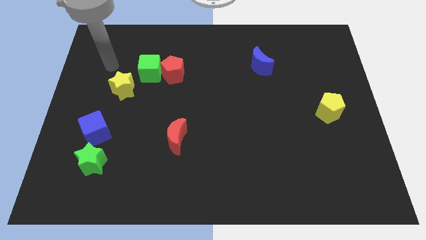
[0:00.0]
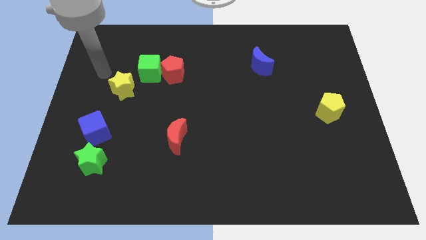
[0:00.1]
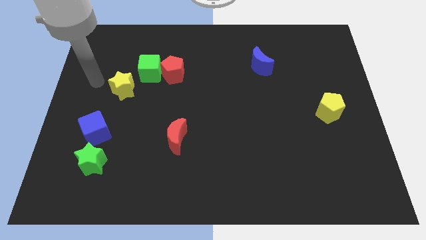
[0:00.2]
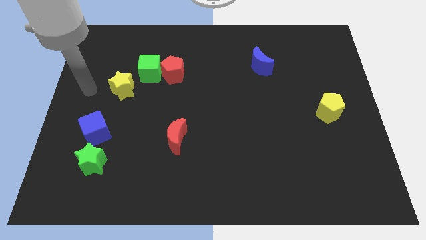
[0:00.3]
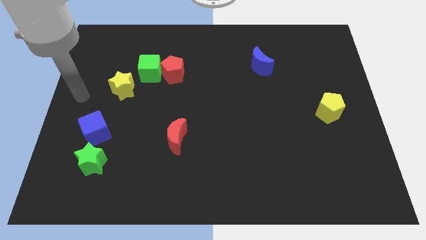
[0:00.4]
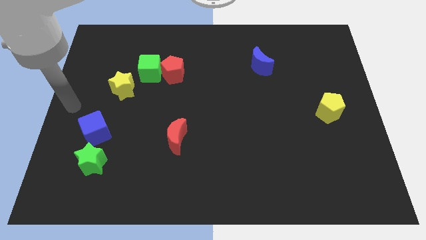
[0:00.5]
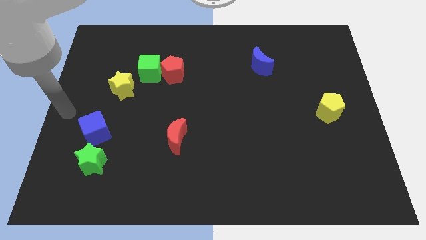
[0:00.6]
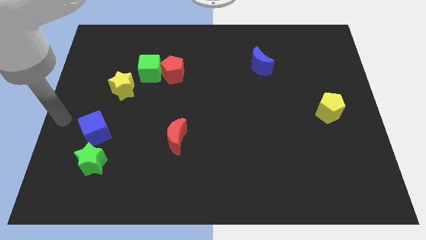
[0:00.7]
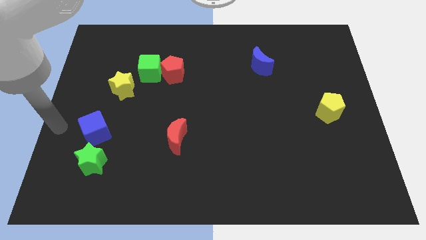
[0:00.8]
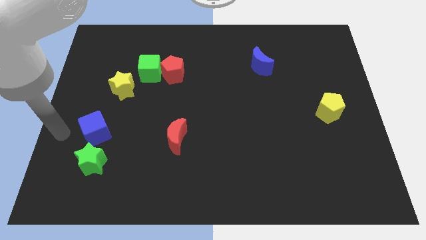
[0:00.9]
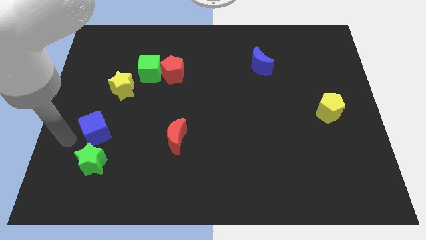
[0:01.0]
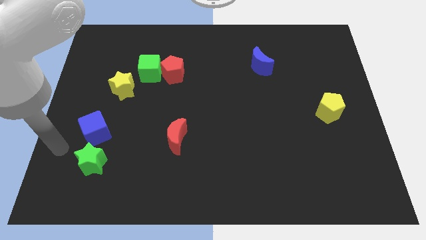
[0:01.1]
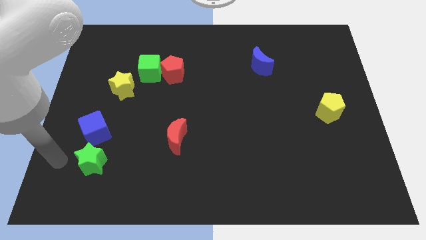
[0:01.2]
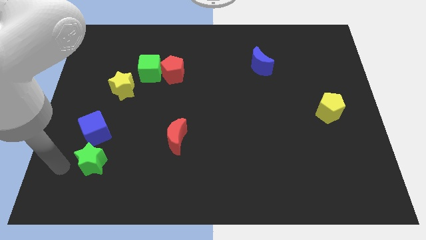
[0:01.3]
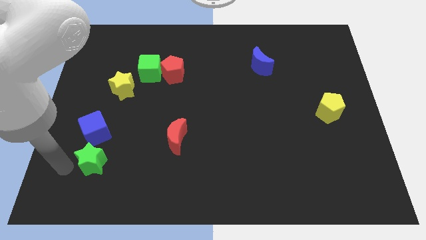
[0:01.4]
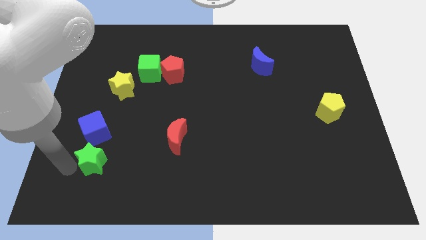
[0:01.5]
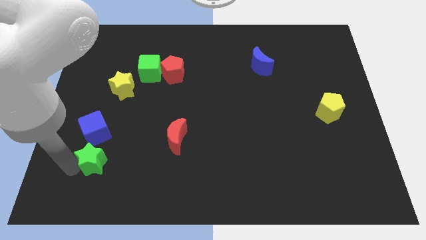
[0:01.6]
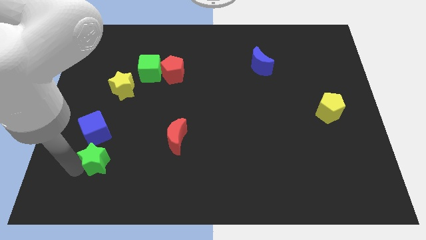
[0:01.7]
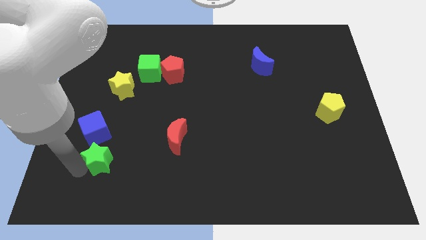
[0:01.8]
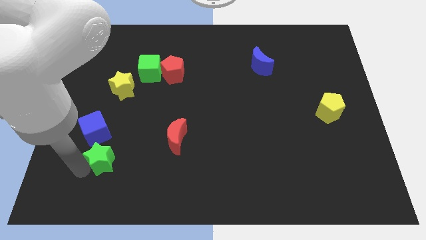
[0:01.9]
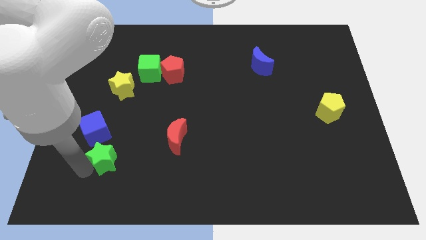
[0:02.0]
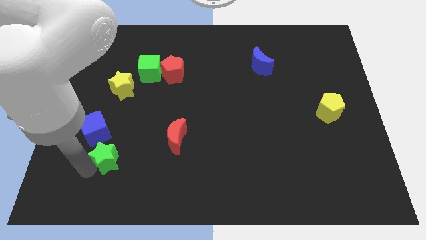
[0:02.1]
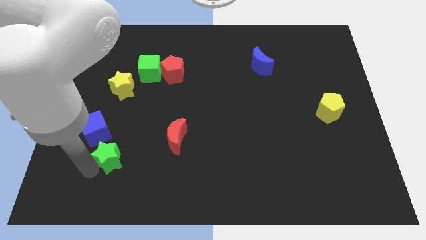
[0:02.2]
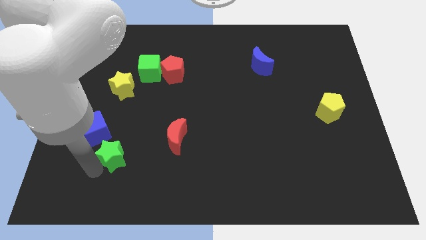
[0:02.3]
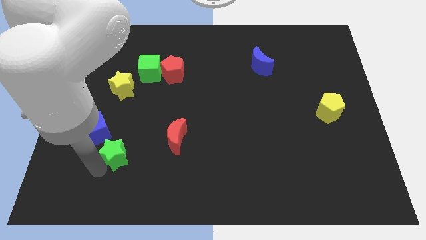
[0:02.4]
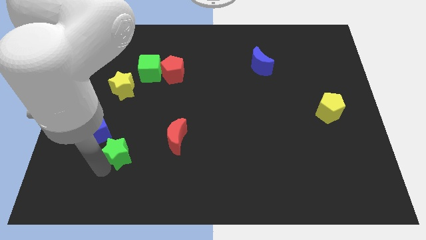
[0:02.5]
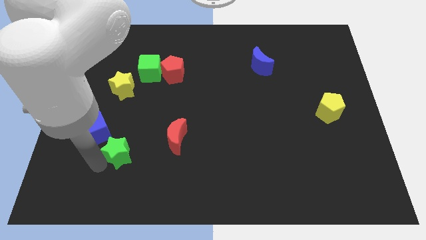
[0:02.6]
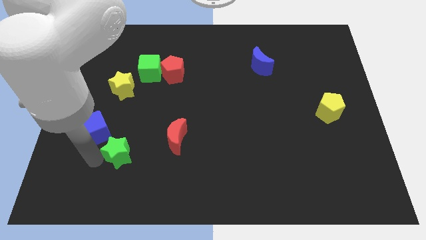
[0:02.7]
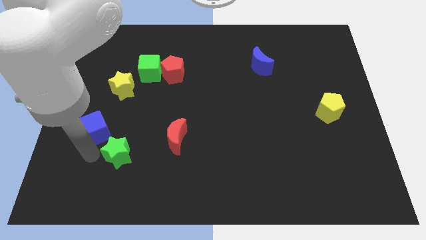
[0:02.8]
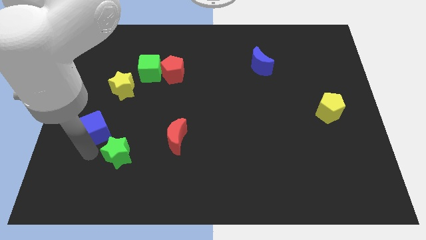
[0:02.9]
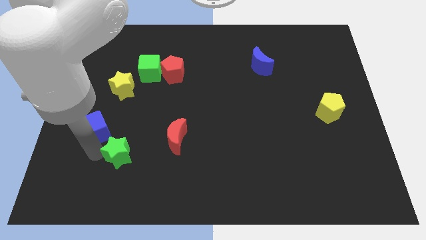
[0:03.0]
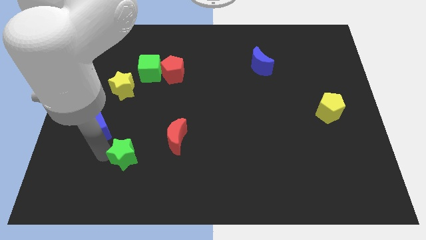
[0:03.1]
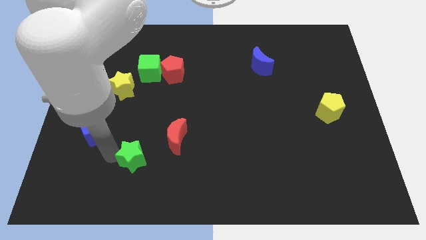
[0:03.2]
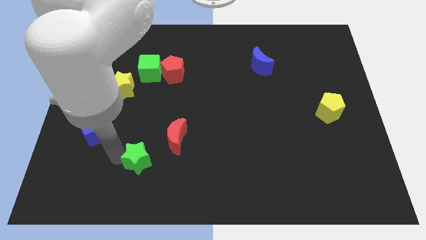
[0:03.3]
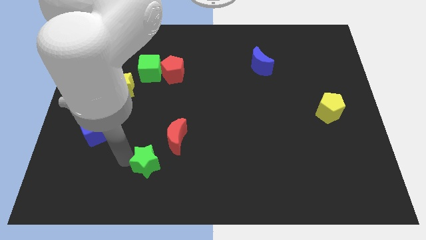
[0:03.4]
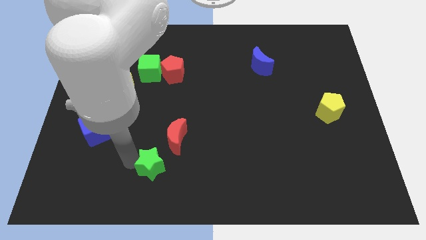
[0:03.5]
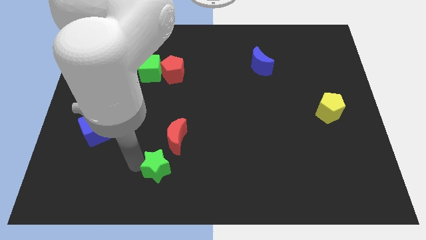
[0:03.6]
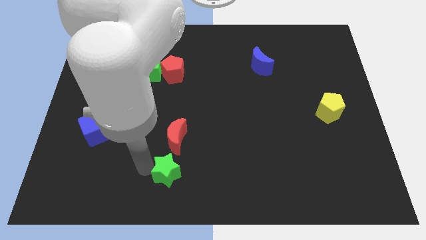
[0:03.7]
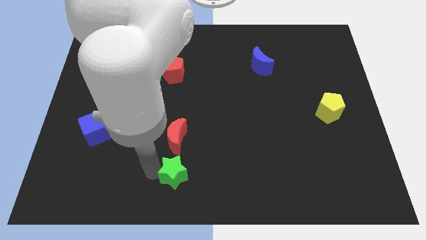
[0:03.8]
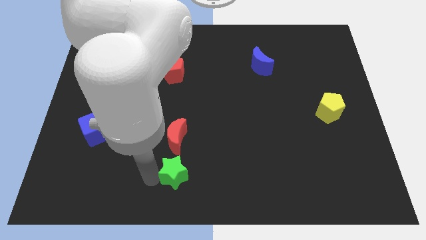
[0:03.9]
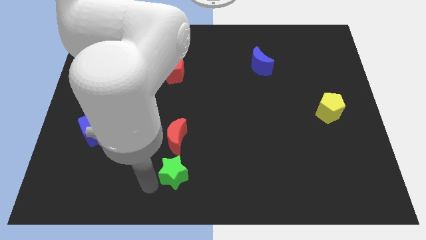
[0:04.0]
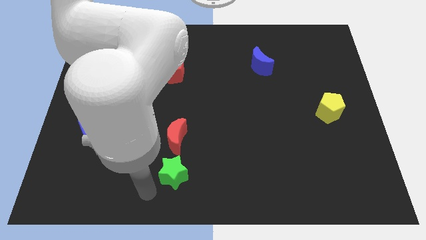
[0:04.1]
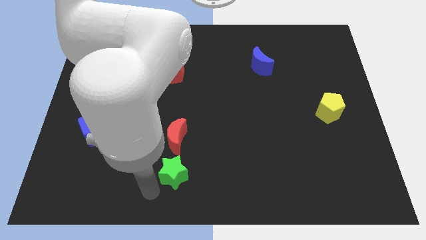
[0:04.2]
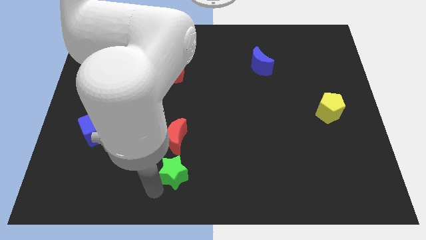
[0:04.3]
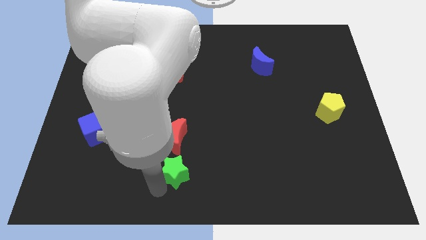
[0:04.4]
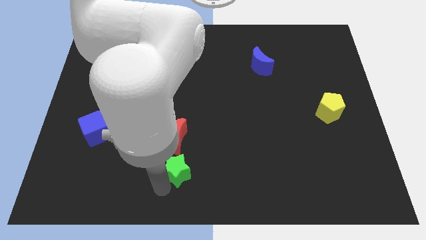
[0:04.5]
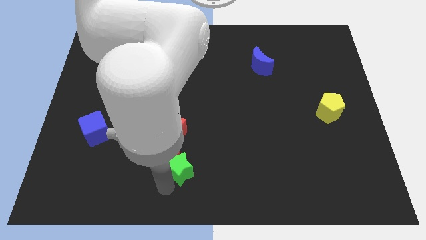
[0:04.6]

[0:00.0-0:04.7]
slide the green star diagonally down and to the right of the red moon

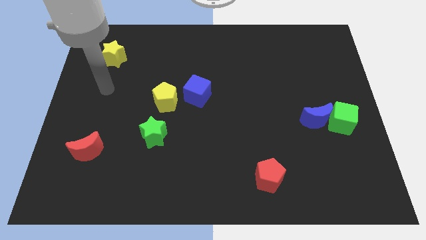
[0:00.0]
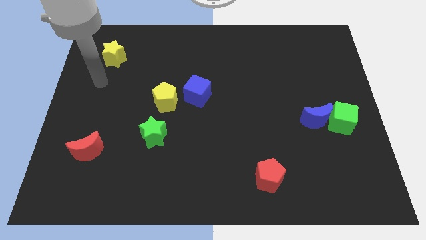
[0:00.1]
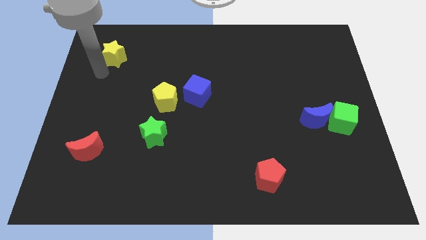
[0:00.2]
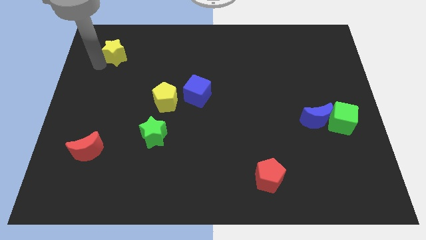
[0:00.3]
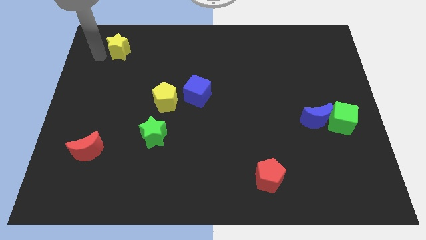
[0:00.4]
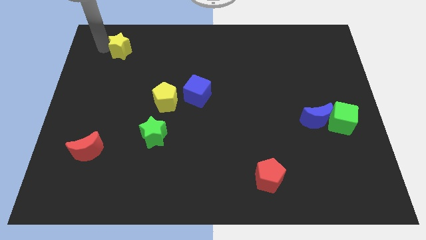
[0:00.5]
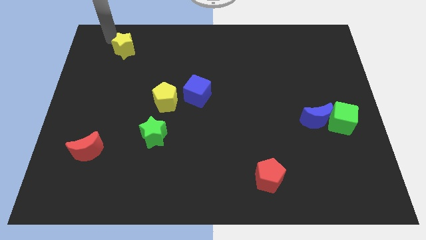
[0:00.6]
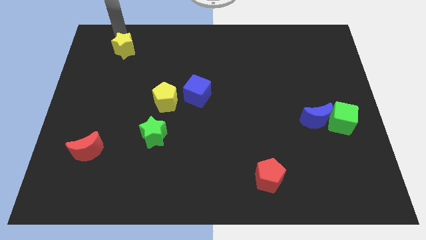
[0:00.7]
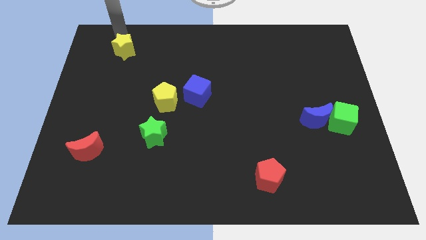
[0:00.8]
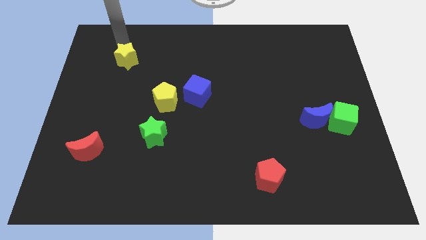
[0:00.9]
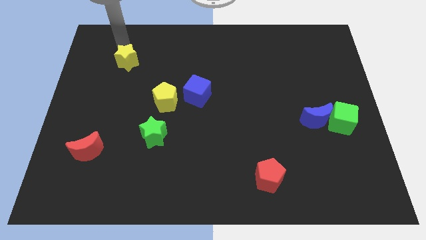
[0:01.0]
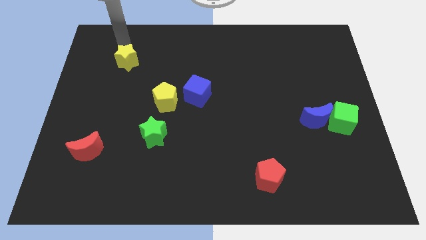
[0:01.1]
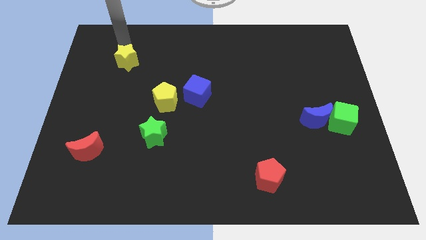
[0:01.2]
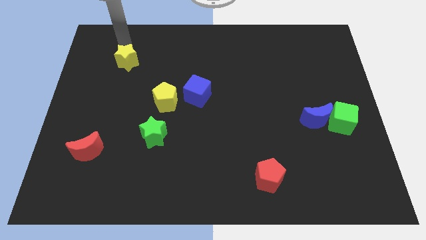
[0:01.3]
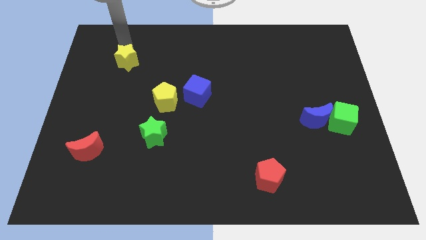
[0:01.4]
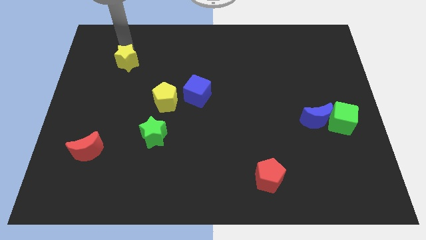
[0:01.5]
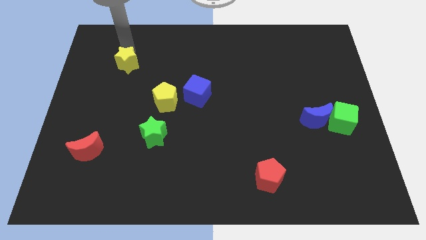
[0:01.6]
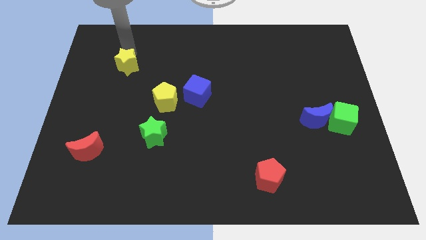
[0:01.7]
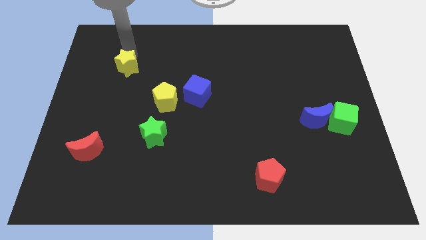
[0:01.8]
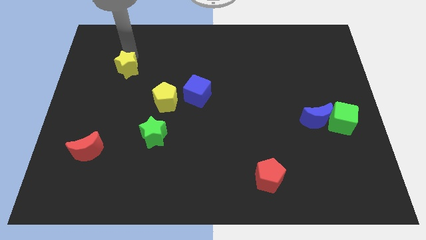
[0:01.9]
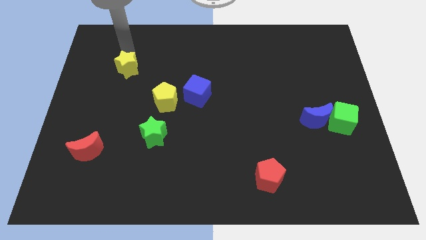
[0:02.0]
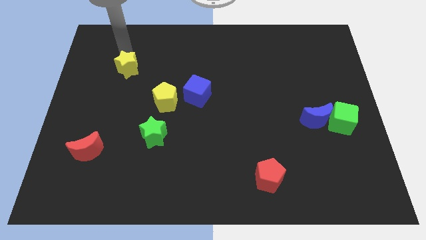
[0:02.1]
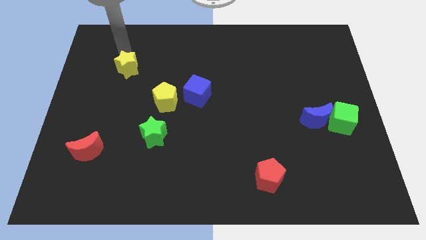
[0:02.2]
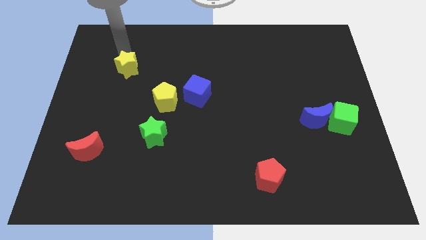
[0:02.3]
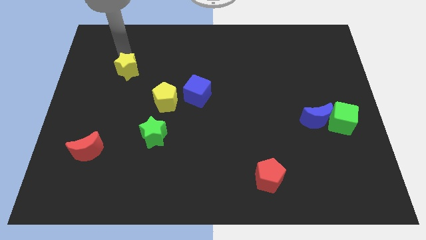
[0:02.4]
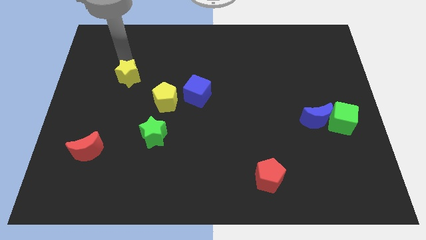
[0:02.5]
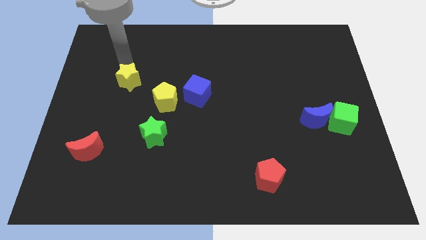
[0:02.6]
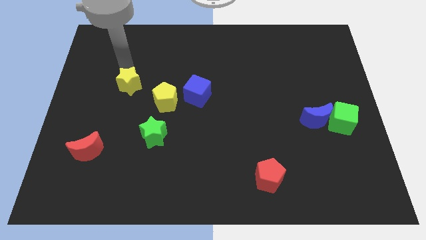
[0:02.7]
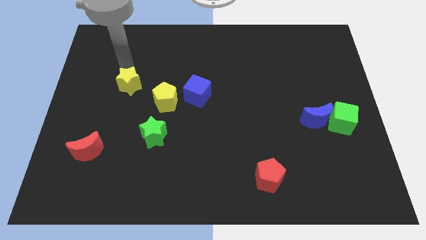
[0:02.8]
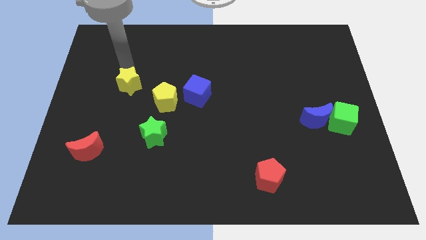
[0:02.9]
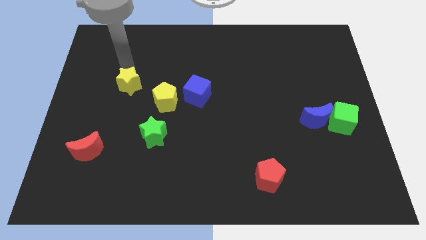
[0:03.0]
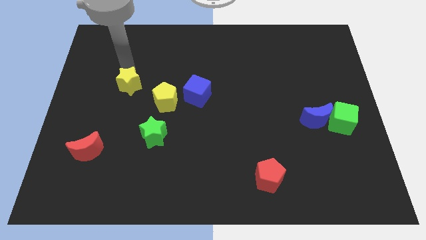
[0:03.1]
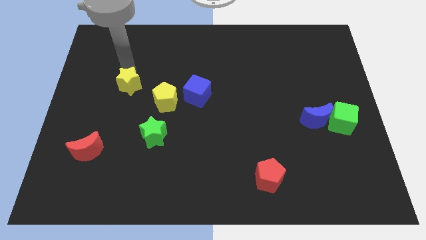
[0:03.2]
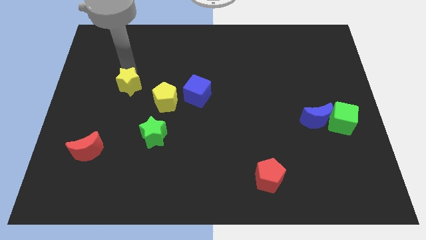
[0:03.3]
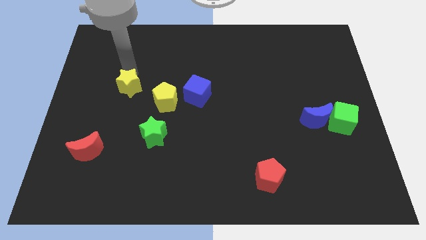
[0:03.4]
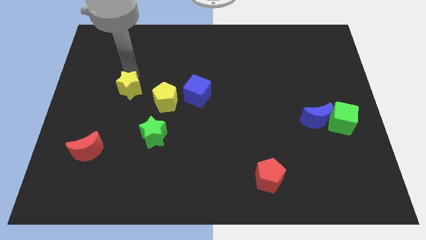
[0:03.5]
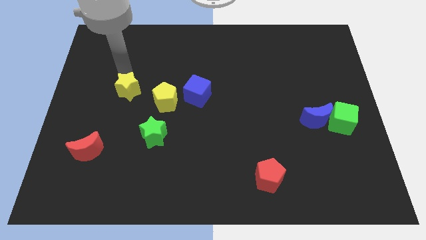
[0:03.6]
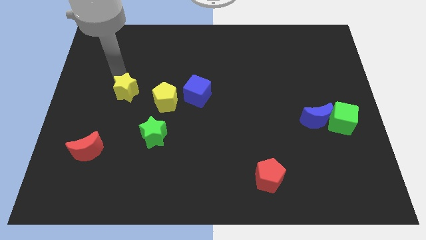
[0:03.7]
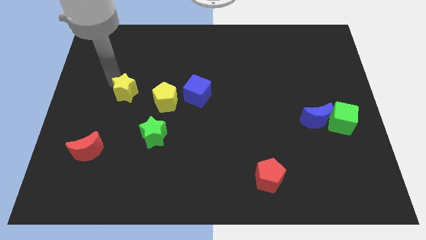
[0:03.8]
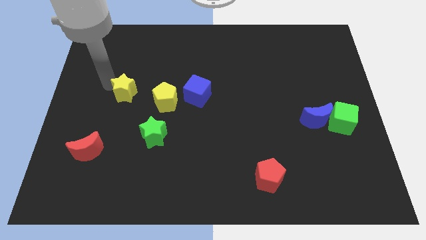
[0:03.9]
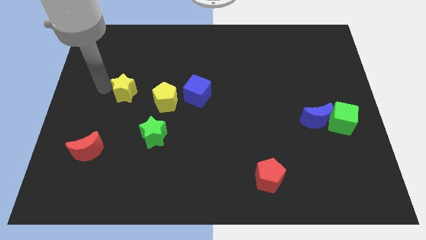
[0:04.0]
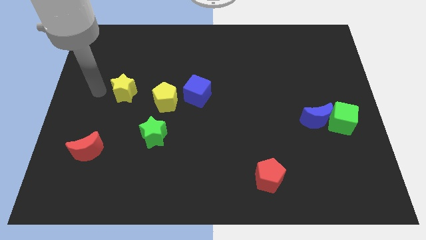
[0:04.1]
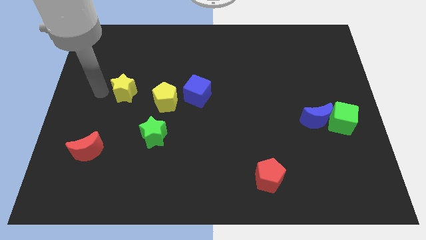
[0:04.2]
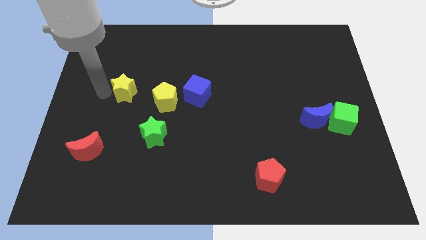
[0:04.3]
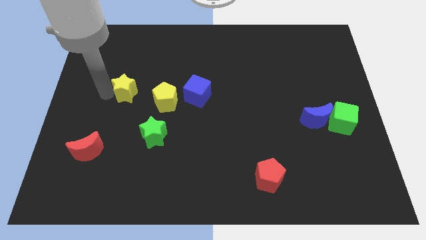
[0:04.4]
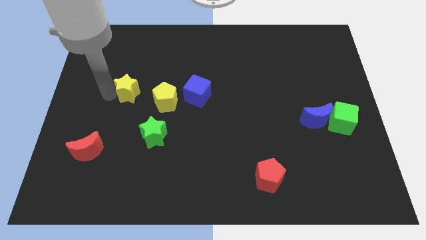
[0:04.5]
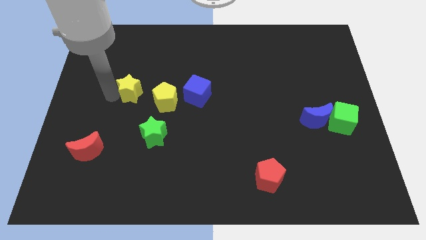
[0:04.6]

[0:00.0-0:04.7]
put the yellow star just left of the blue cube
